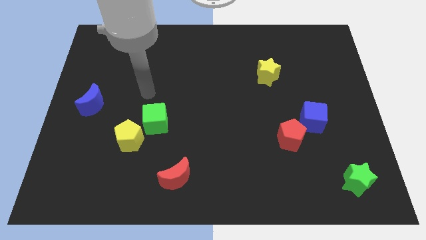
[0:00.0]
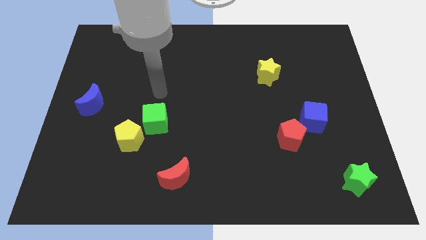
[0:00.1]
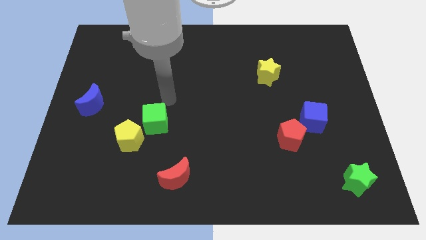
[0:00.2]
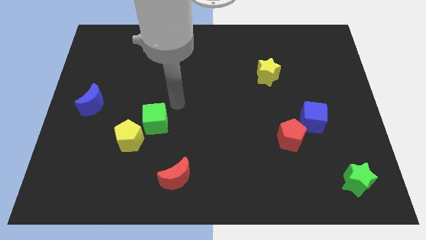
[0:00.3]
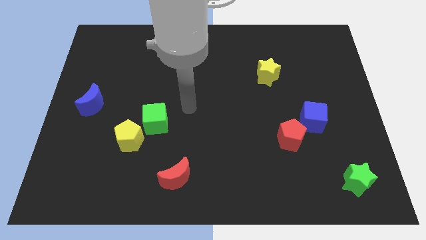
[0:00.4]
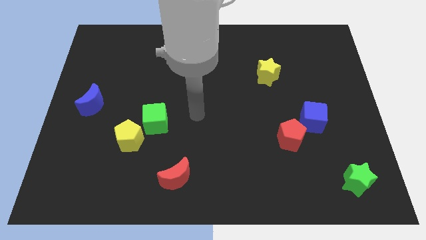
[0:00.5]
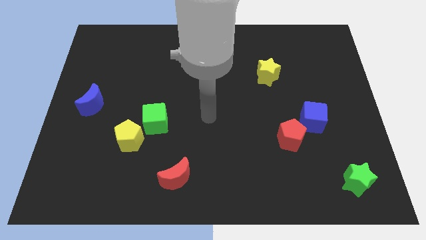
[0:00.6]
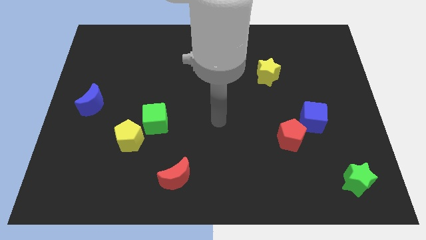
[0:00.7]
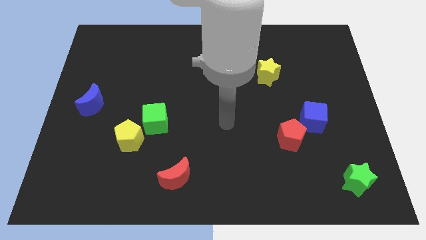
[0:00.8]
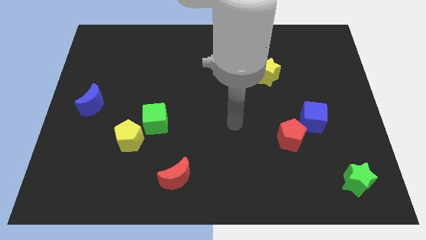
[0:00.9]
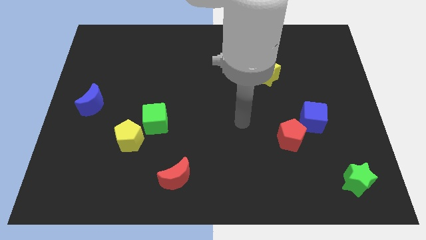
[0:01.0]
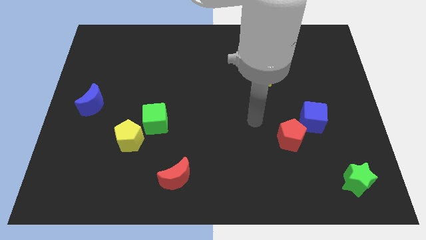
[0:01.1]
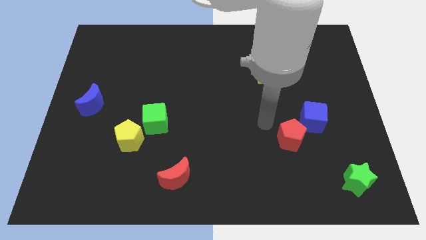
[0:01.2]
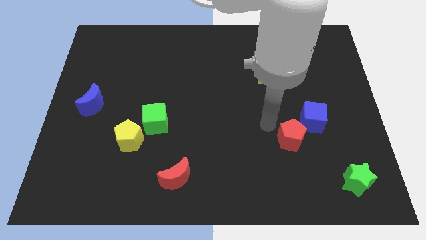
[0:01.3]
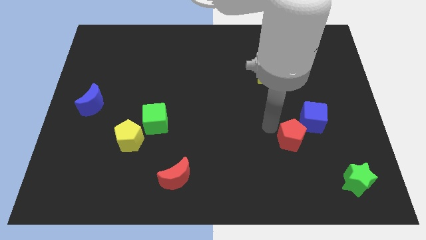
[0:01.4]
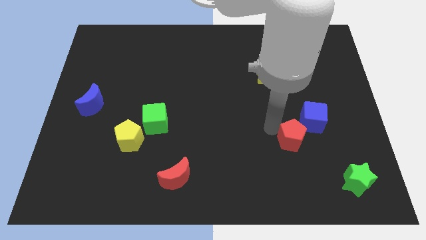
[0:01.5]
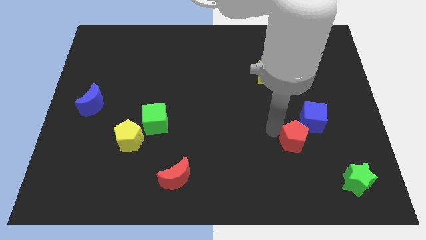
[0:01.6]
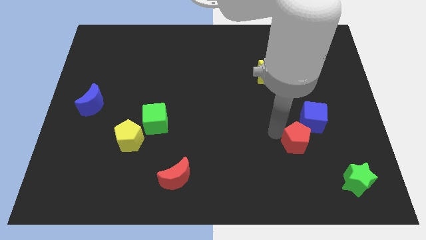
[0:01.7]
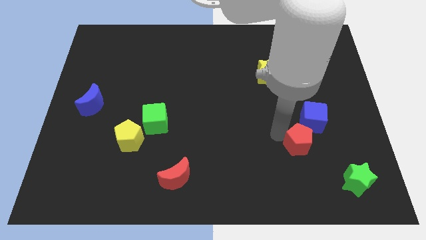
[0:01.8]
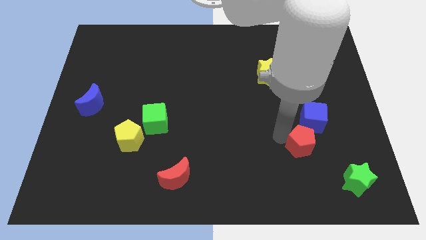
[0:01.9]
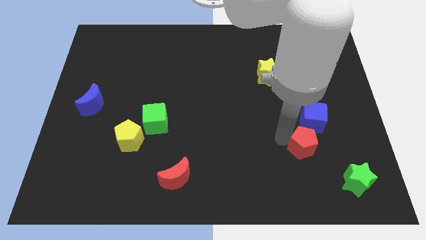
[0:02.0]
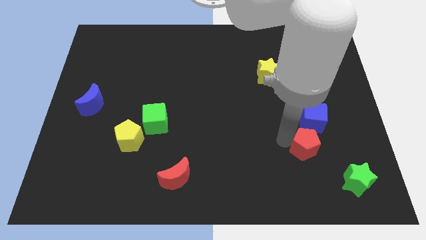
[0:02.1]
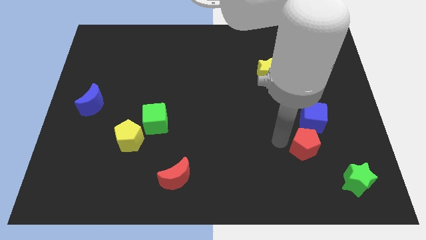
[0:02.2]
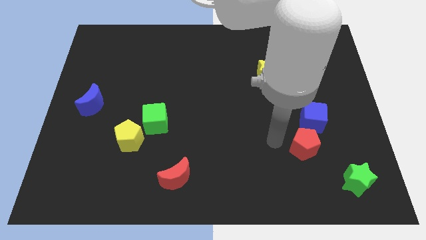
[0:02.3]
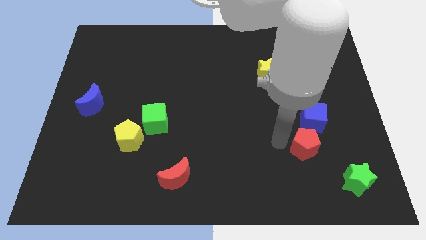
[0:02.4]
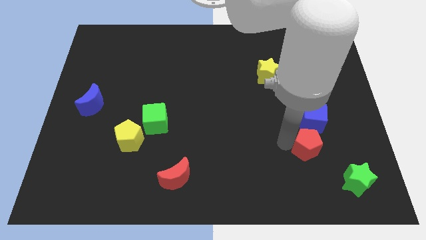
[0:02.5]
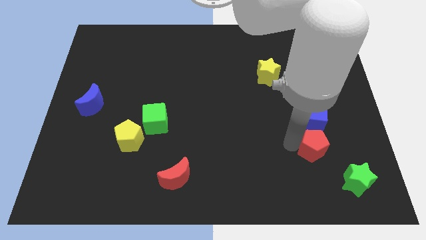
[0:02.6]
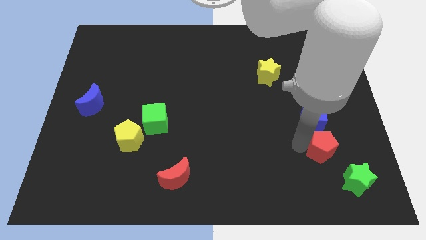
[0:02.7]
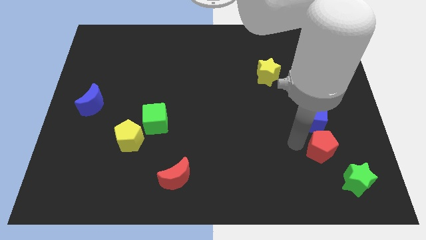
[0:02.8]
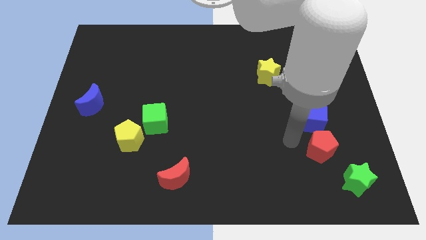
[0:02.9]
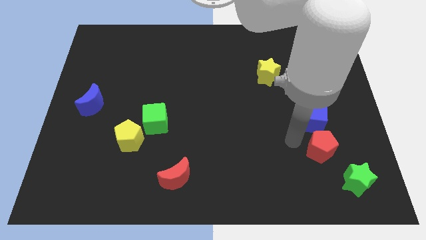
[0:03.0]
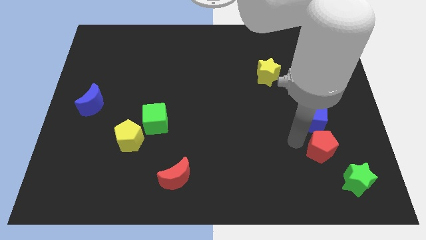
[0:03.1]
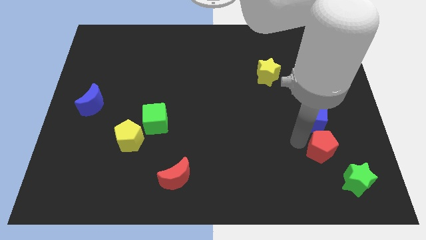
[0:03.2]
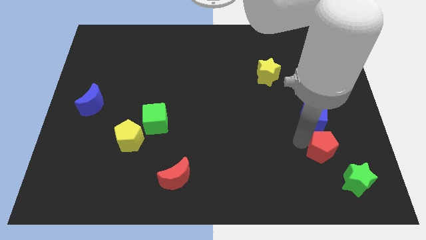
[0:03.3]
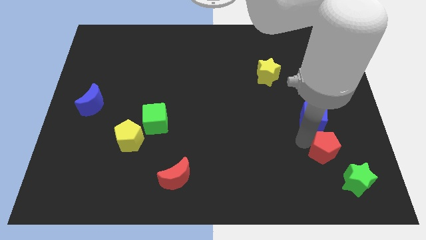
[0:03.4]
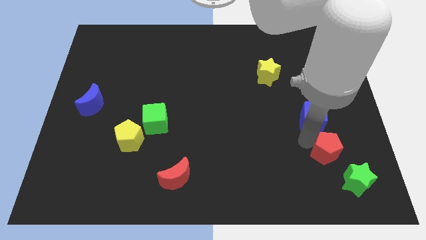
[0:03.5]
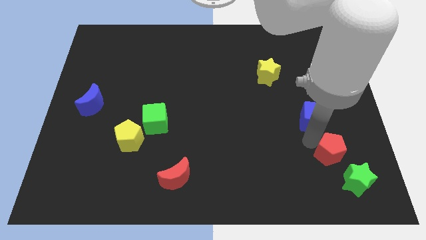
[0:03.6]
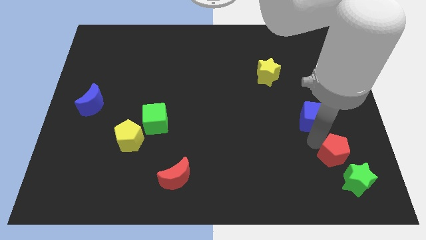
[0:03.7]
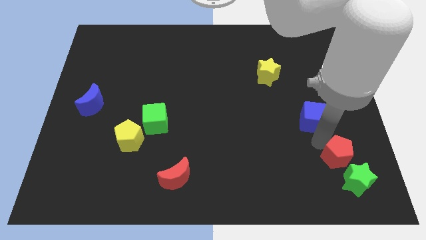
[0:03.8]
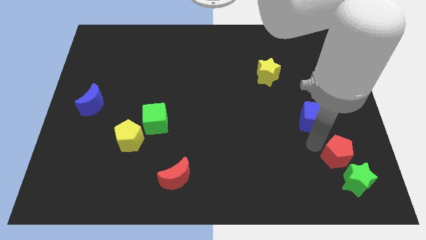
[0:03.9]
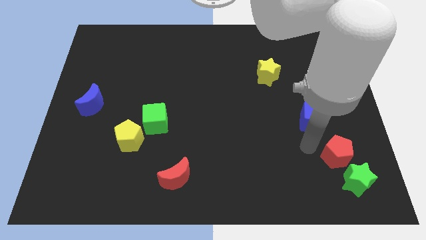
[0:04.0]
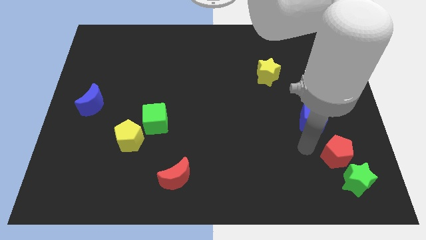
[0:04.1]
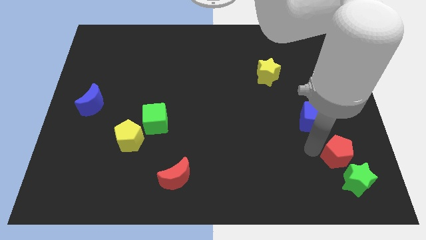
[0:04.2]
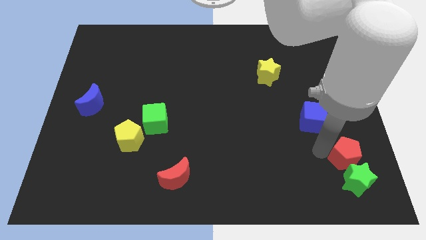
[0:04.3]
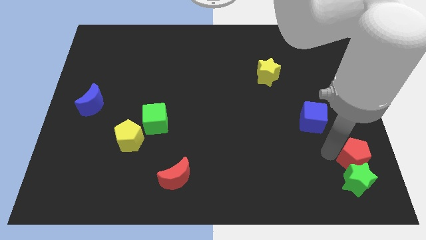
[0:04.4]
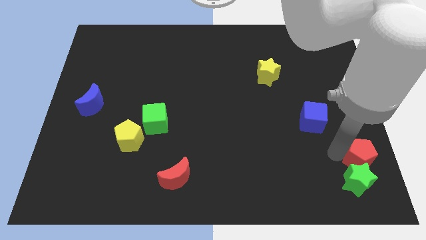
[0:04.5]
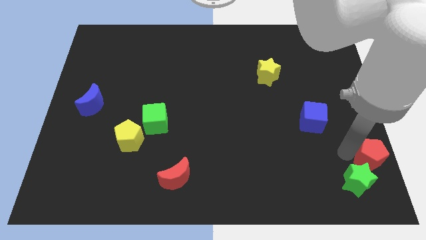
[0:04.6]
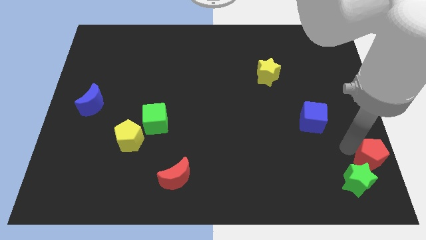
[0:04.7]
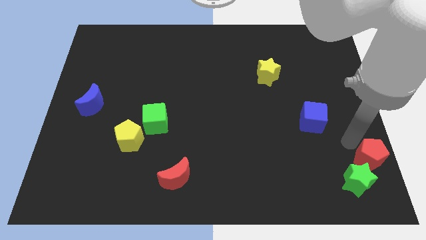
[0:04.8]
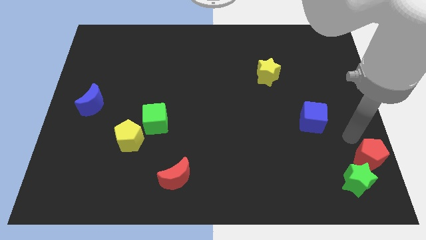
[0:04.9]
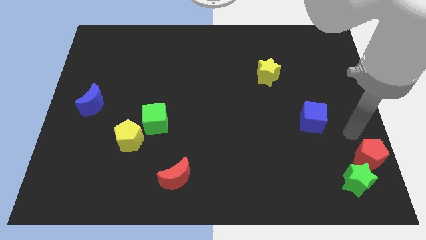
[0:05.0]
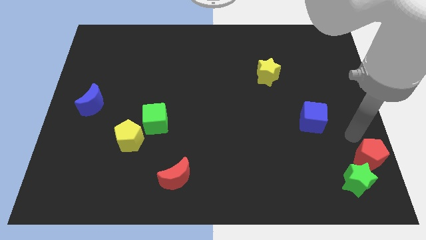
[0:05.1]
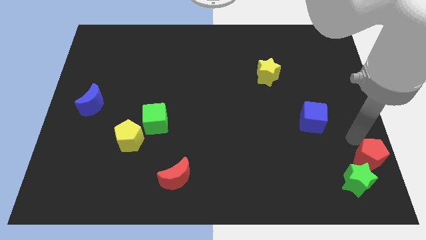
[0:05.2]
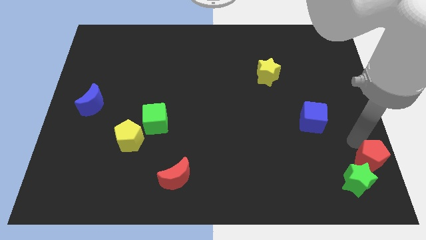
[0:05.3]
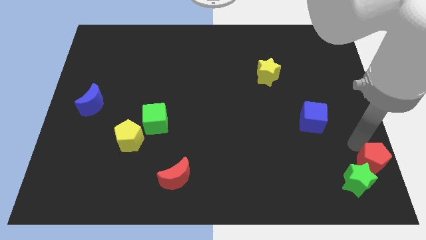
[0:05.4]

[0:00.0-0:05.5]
move the red pentagon to the bottom right of the board
